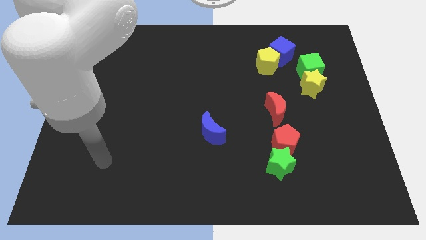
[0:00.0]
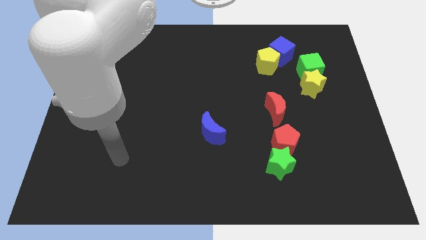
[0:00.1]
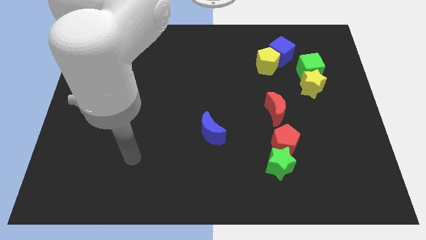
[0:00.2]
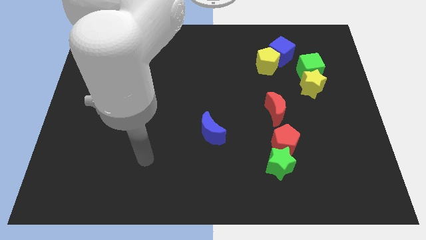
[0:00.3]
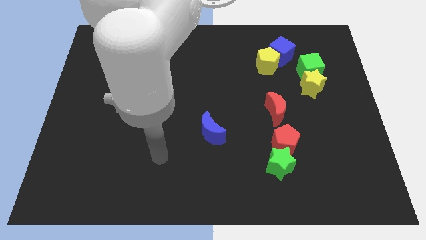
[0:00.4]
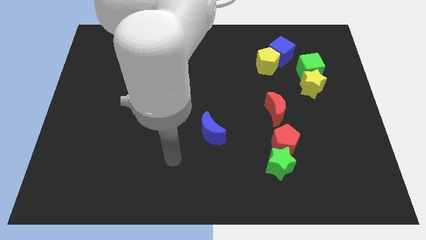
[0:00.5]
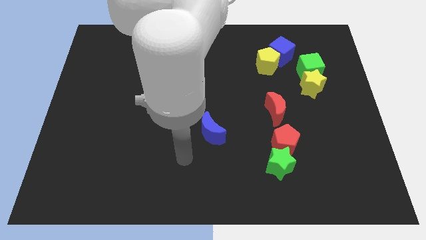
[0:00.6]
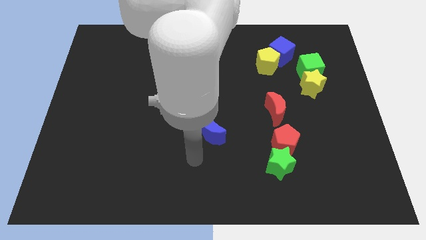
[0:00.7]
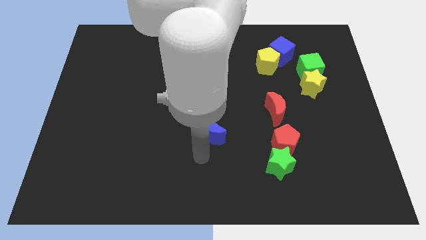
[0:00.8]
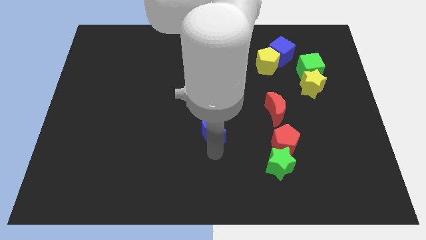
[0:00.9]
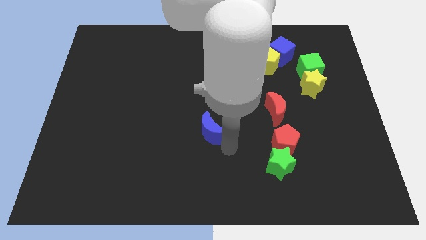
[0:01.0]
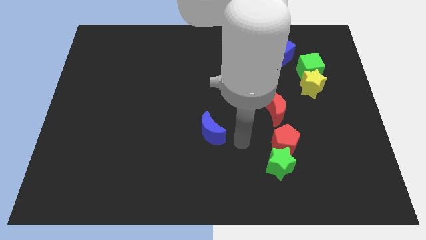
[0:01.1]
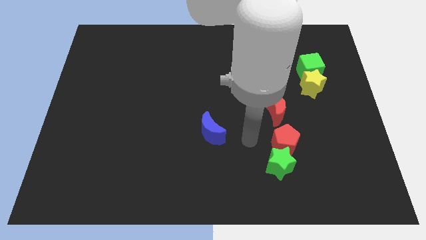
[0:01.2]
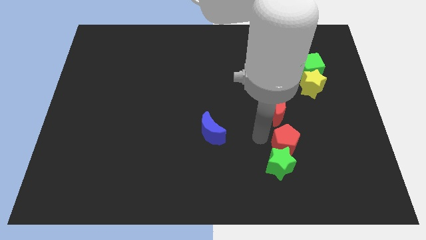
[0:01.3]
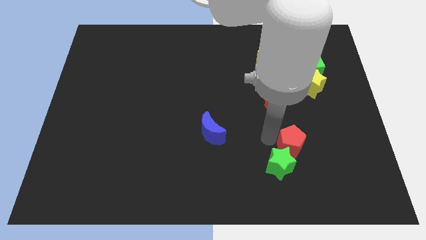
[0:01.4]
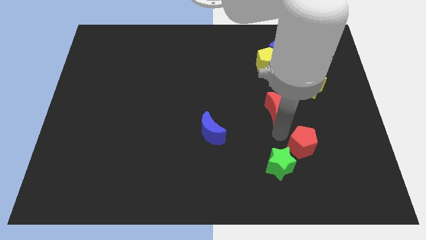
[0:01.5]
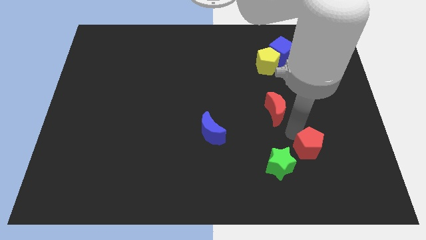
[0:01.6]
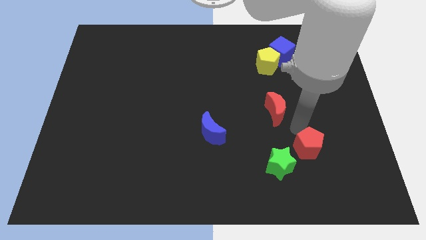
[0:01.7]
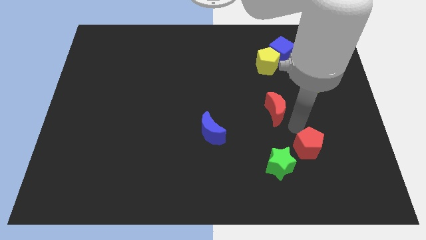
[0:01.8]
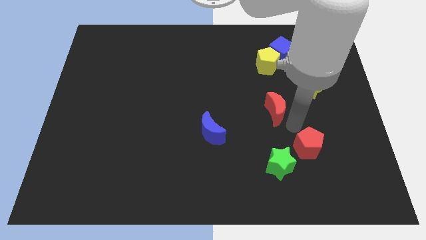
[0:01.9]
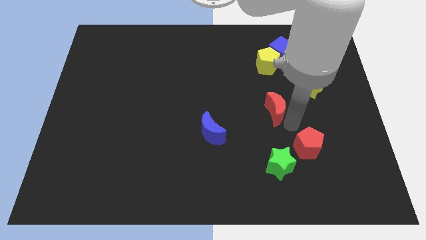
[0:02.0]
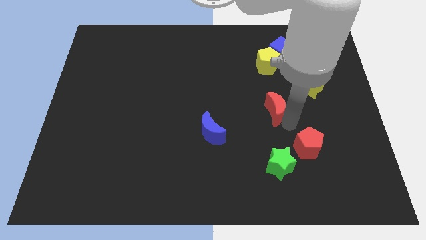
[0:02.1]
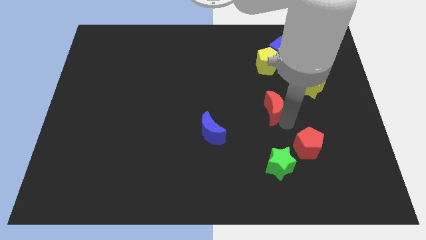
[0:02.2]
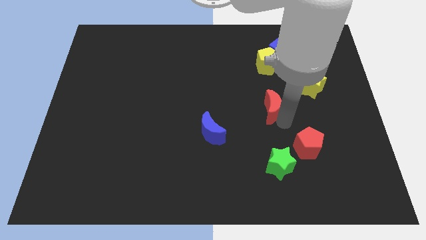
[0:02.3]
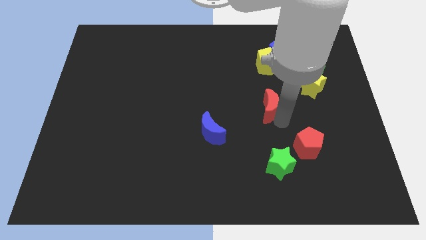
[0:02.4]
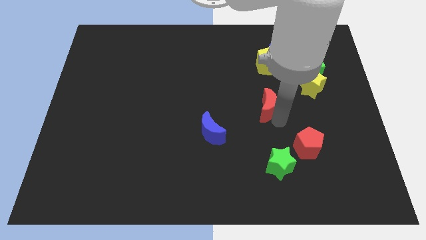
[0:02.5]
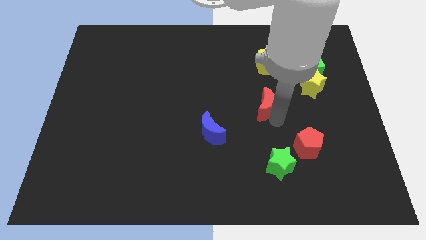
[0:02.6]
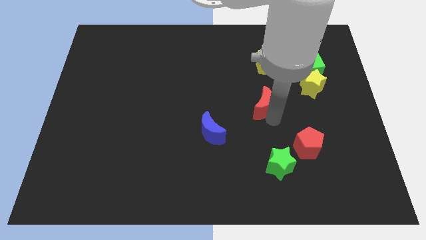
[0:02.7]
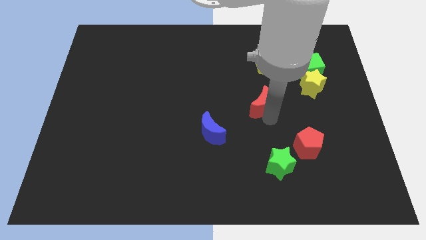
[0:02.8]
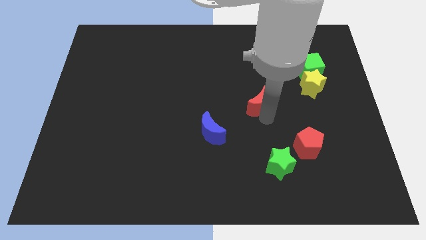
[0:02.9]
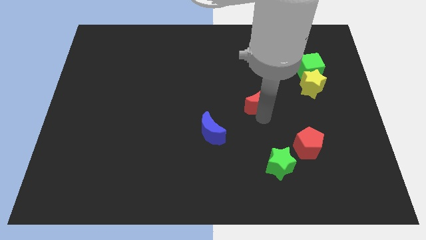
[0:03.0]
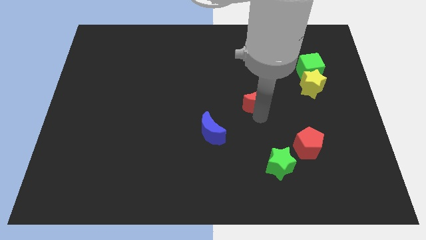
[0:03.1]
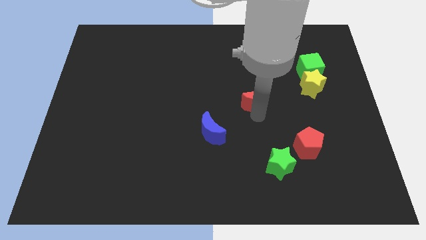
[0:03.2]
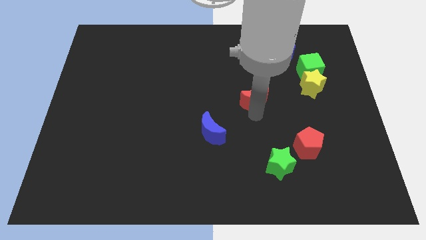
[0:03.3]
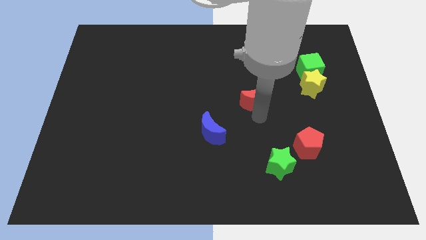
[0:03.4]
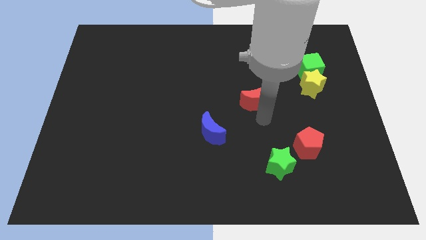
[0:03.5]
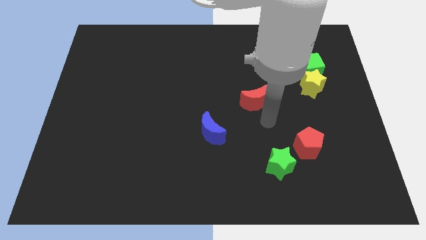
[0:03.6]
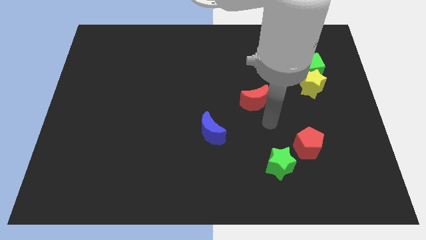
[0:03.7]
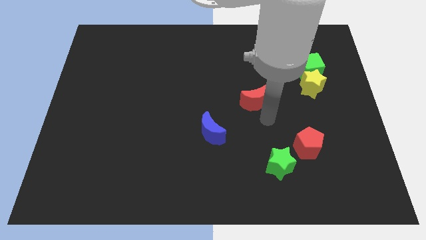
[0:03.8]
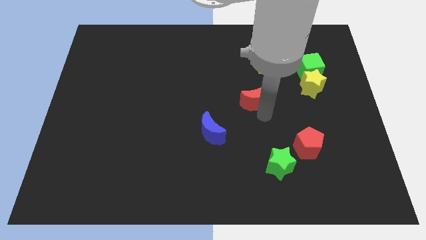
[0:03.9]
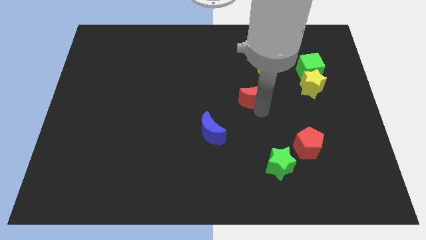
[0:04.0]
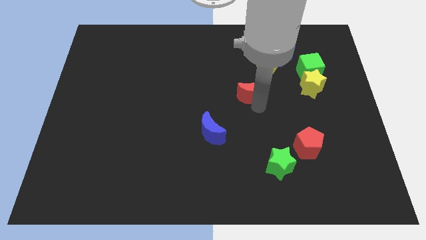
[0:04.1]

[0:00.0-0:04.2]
push the red moon diagonally up and to the left a little bit

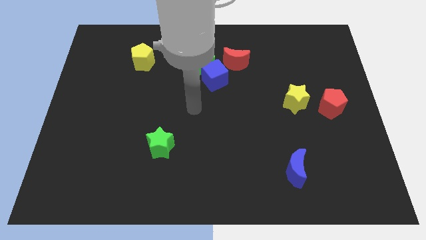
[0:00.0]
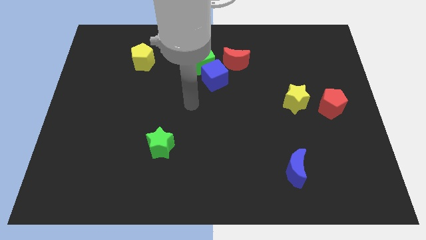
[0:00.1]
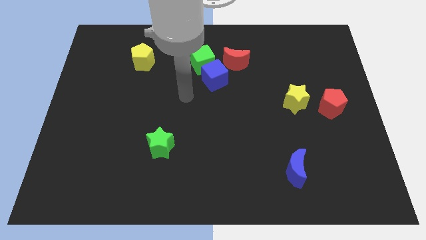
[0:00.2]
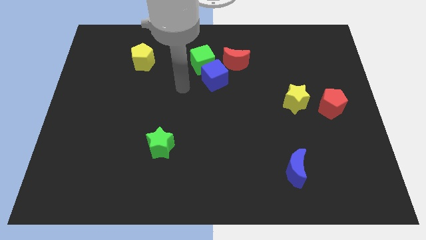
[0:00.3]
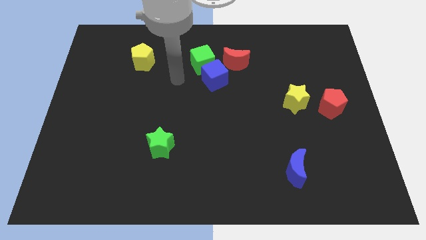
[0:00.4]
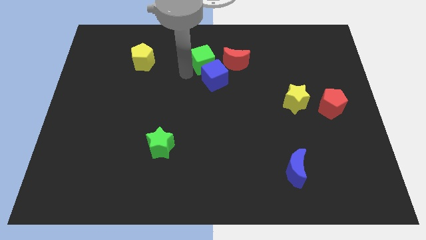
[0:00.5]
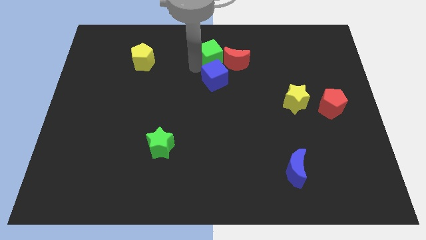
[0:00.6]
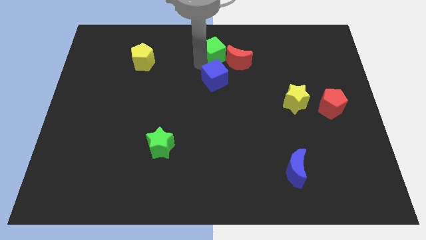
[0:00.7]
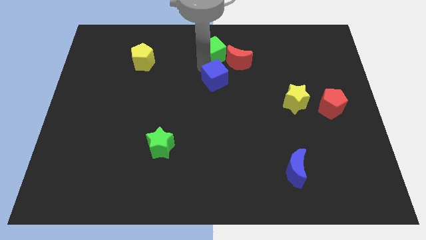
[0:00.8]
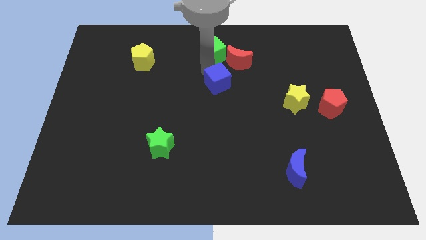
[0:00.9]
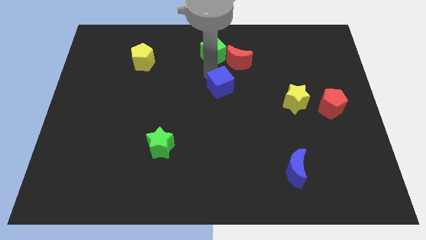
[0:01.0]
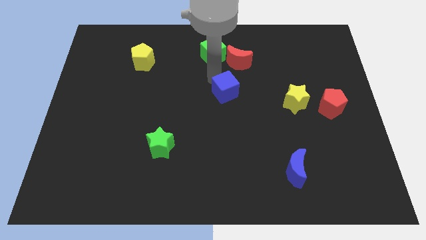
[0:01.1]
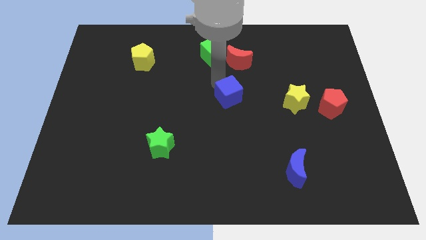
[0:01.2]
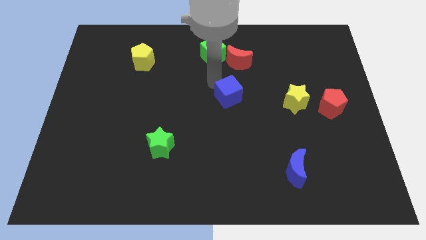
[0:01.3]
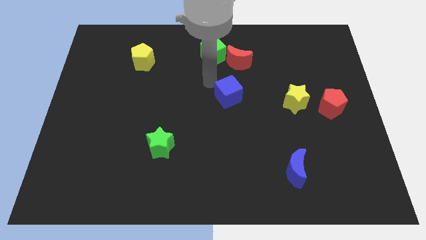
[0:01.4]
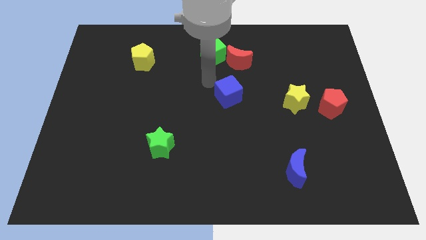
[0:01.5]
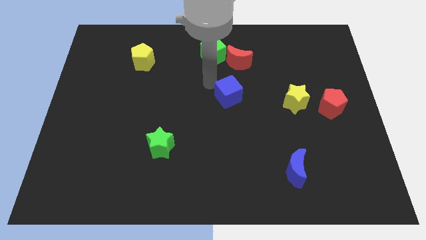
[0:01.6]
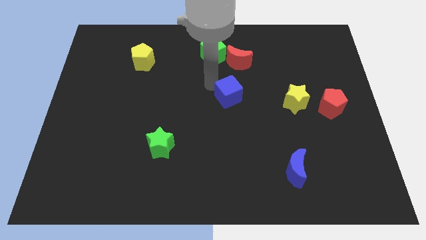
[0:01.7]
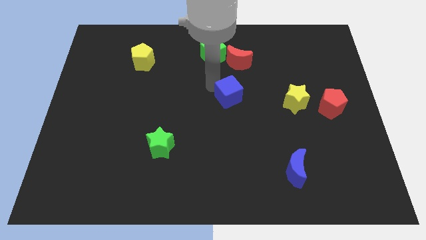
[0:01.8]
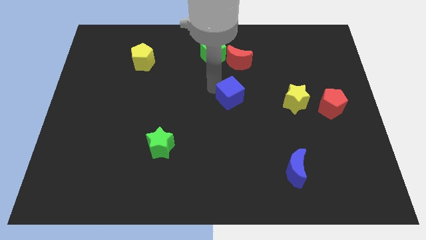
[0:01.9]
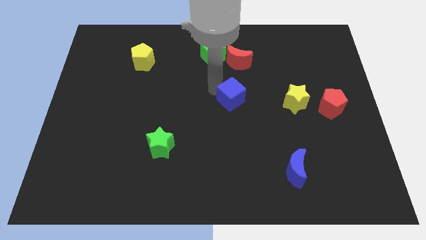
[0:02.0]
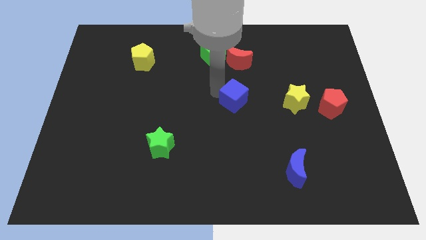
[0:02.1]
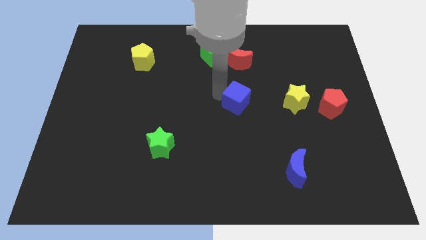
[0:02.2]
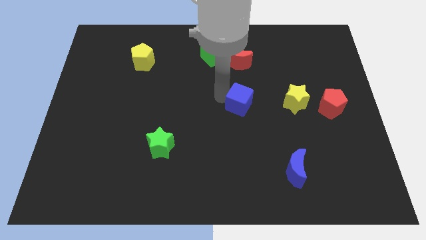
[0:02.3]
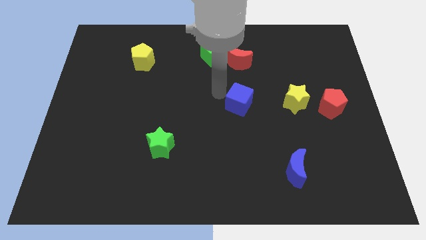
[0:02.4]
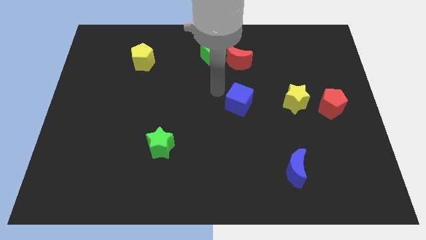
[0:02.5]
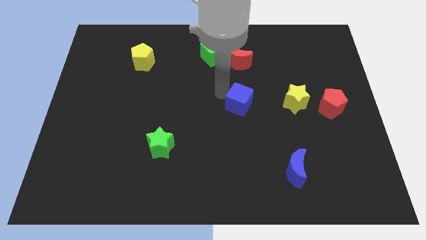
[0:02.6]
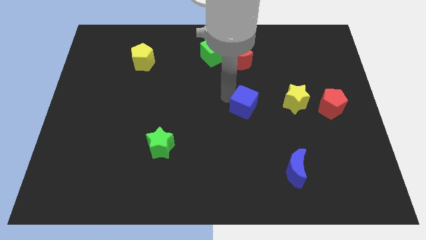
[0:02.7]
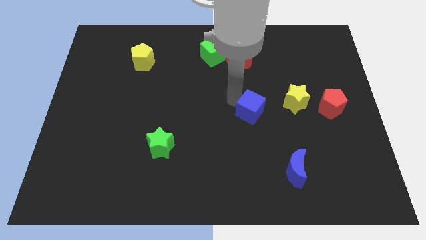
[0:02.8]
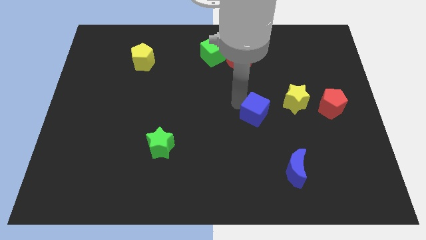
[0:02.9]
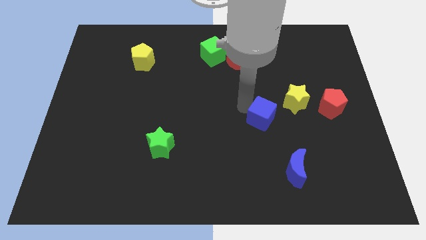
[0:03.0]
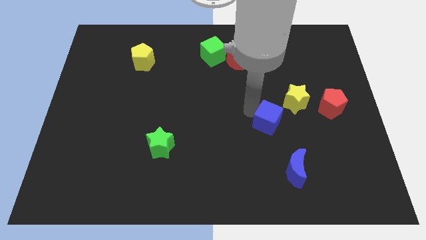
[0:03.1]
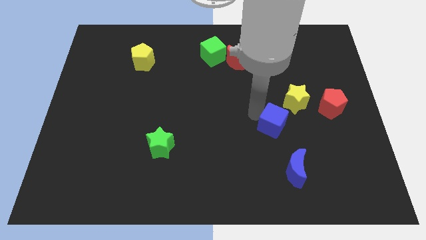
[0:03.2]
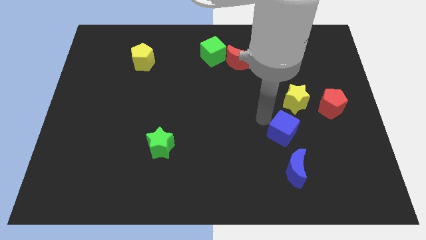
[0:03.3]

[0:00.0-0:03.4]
move the blue cube downwards and to the right diagonally
